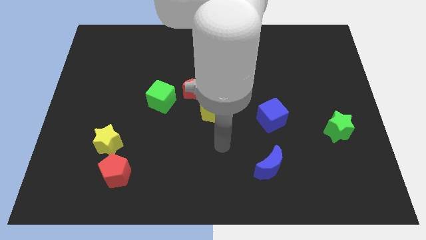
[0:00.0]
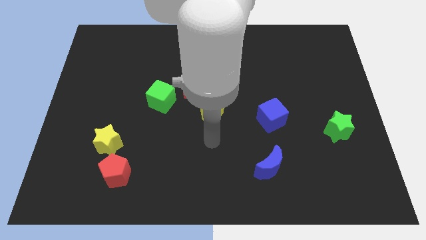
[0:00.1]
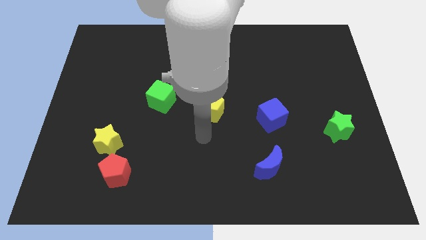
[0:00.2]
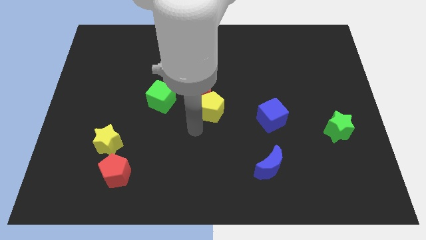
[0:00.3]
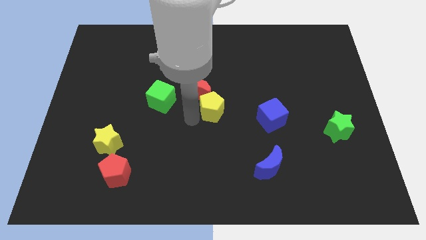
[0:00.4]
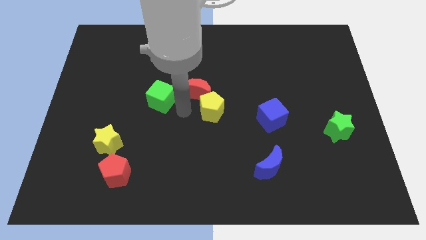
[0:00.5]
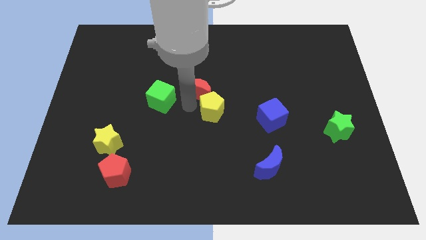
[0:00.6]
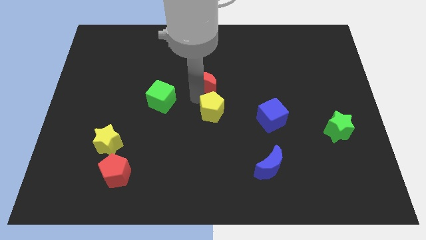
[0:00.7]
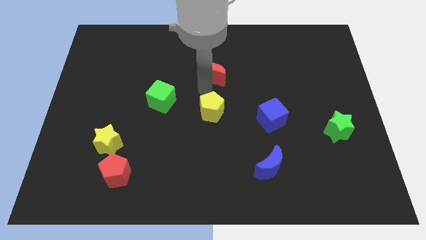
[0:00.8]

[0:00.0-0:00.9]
pull the yellow pentagon apart from the red moon

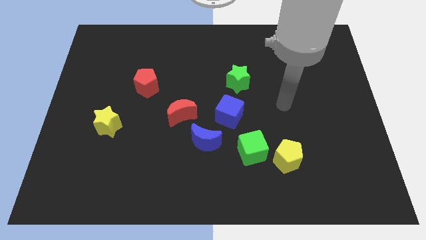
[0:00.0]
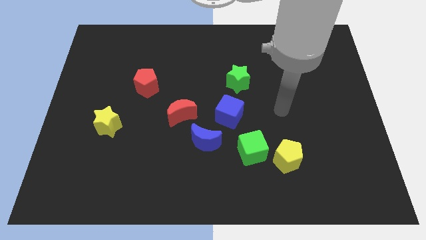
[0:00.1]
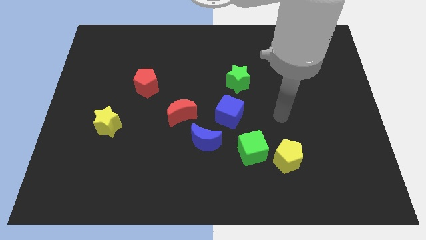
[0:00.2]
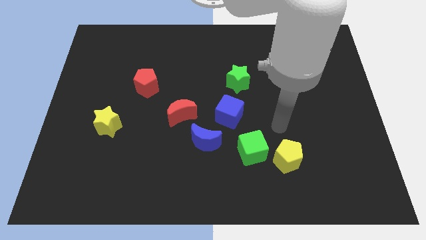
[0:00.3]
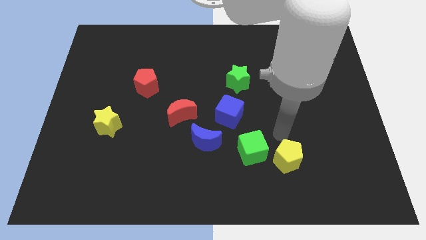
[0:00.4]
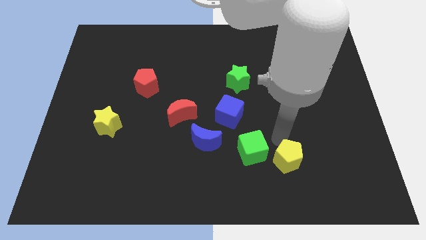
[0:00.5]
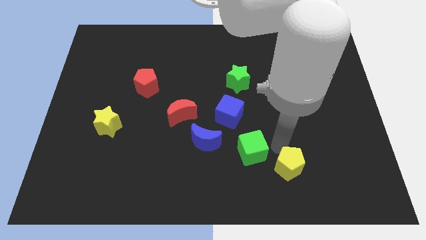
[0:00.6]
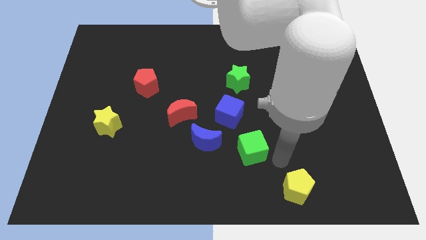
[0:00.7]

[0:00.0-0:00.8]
pull the green cube apart from the yellow pentagon

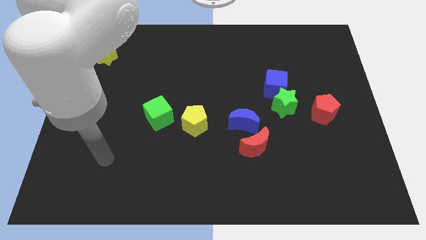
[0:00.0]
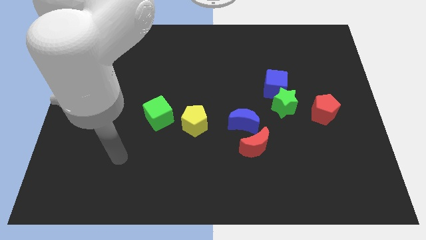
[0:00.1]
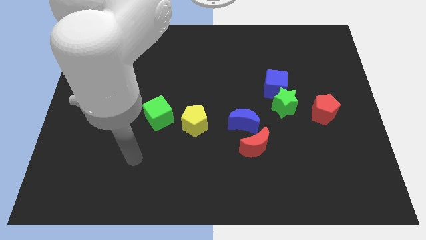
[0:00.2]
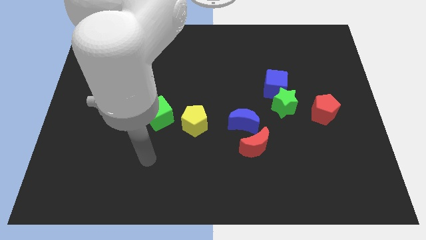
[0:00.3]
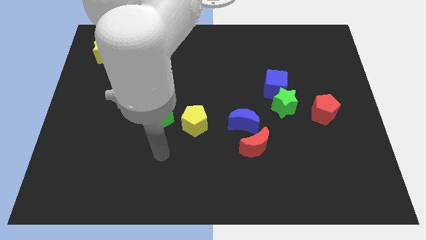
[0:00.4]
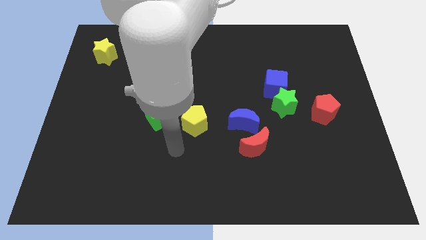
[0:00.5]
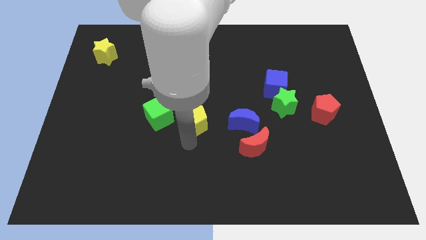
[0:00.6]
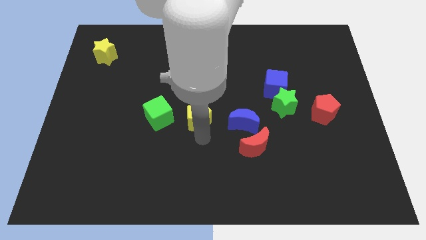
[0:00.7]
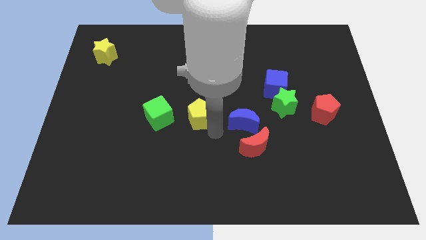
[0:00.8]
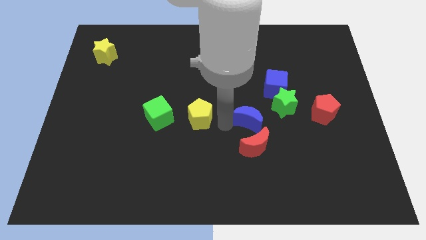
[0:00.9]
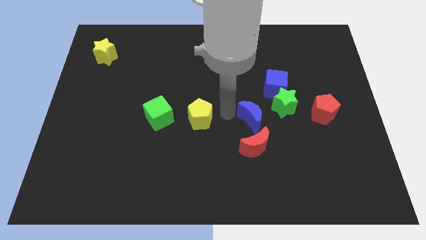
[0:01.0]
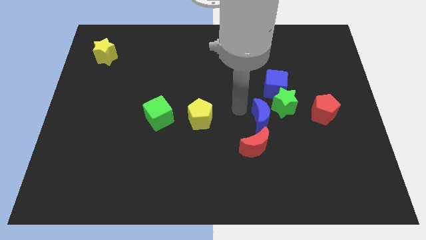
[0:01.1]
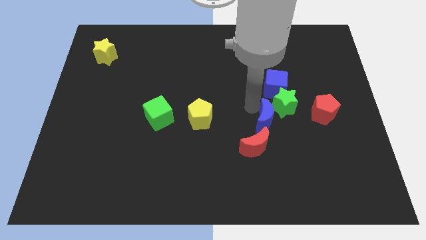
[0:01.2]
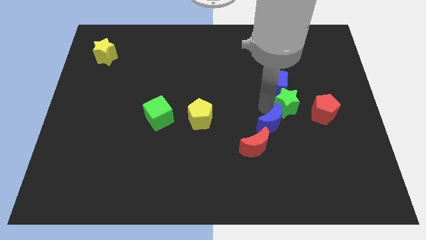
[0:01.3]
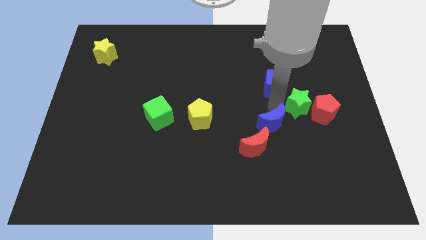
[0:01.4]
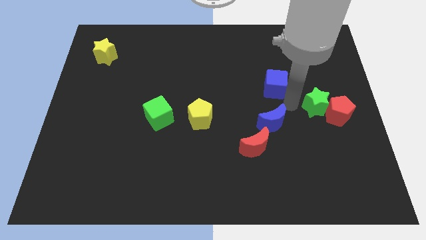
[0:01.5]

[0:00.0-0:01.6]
pull the blue cube apart from the green star

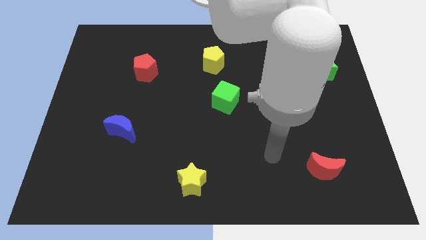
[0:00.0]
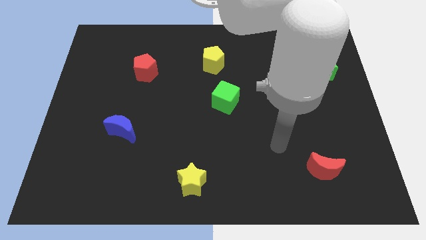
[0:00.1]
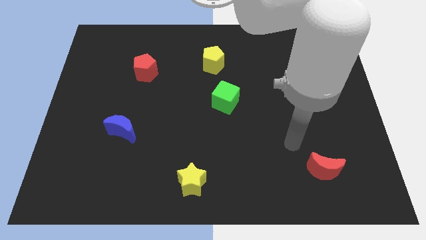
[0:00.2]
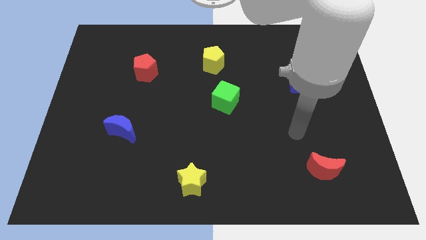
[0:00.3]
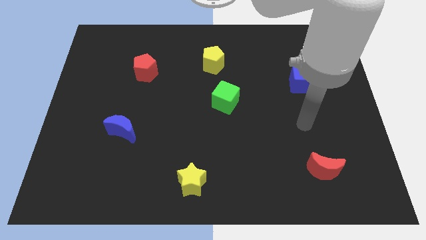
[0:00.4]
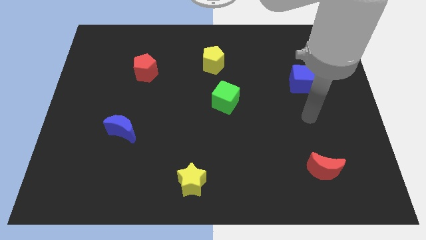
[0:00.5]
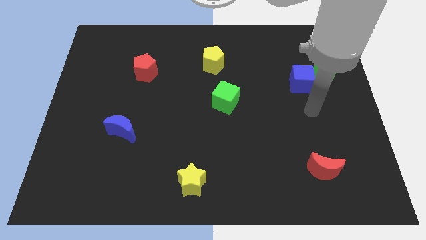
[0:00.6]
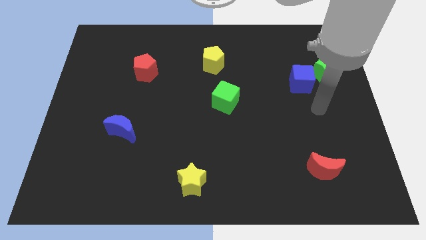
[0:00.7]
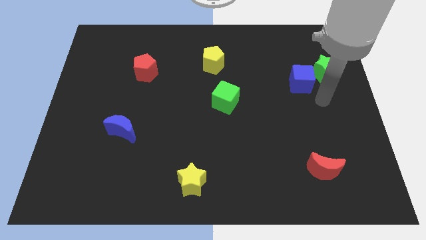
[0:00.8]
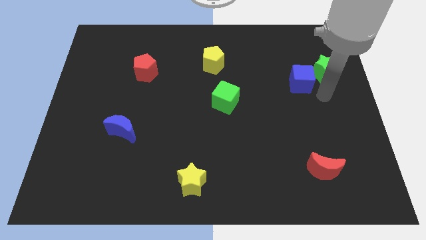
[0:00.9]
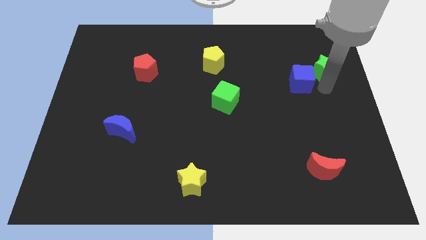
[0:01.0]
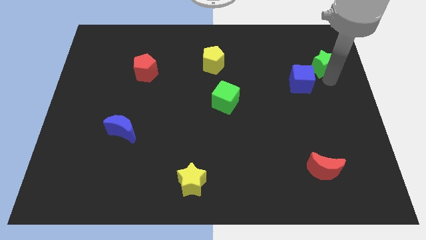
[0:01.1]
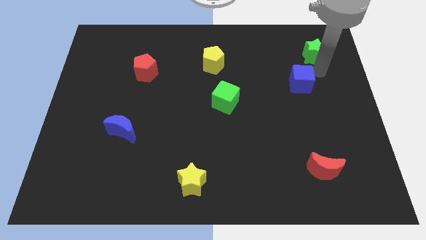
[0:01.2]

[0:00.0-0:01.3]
move the blue cube away from the green star

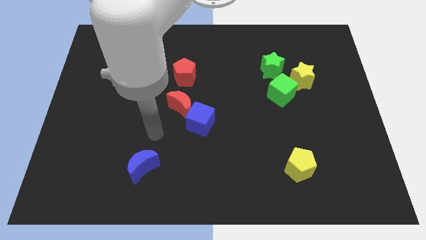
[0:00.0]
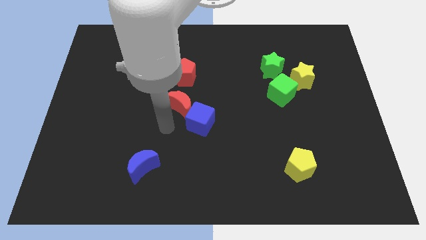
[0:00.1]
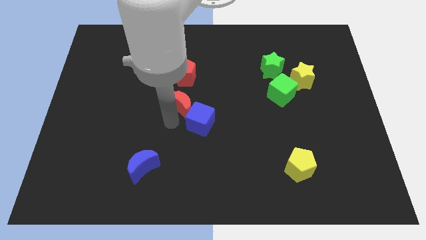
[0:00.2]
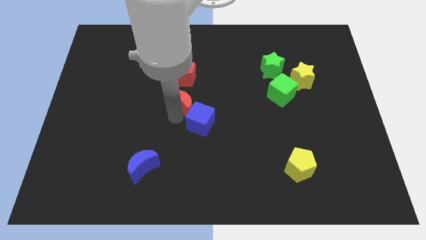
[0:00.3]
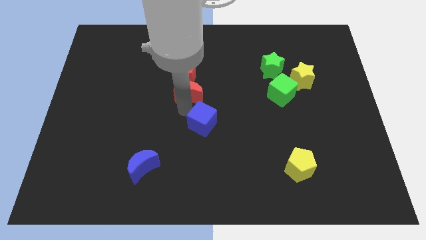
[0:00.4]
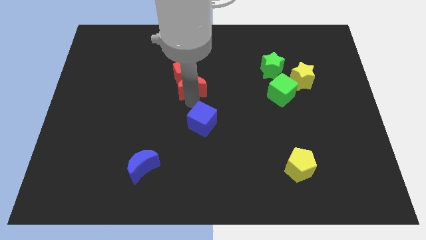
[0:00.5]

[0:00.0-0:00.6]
move the blue cube away from the red moon

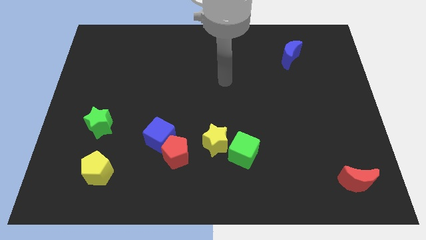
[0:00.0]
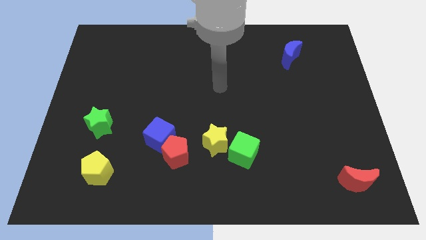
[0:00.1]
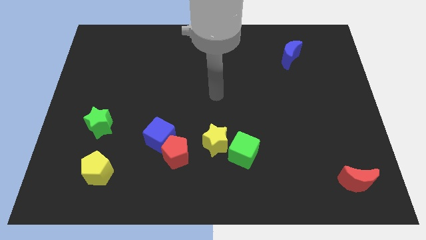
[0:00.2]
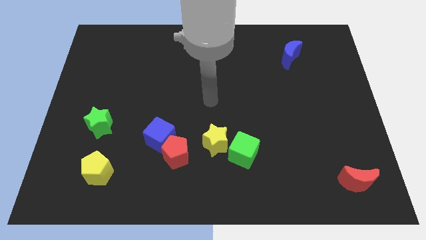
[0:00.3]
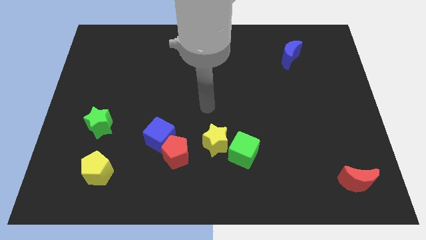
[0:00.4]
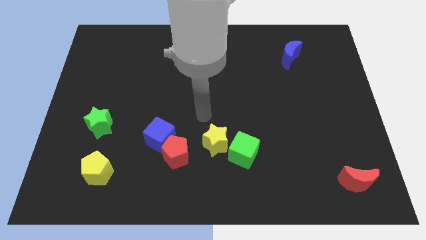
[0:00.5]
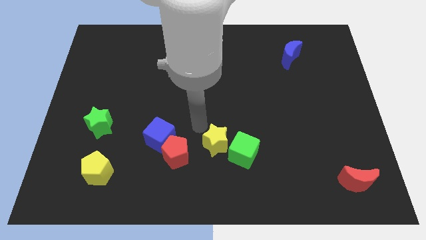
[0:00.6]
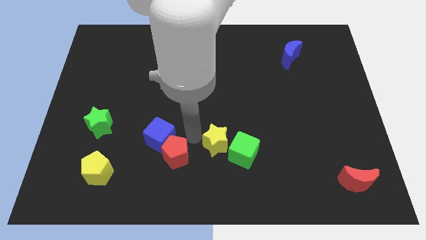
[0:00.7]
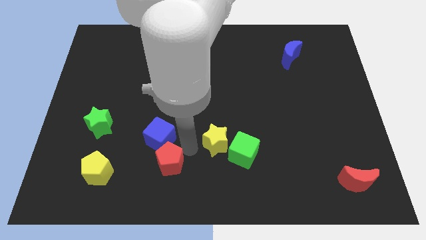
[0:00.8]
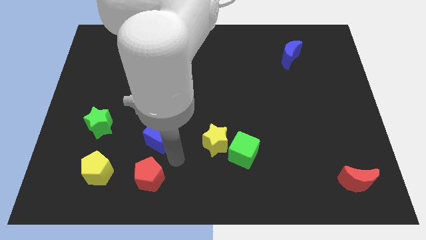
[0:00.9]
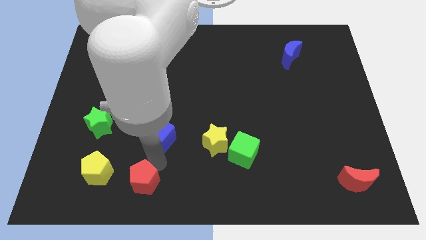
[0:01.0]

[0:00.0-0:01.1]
pull the blue cube apart from the red pentagon

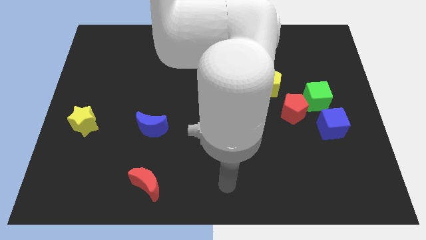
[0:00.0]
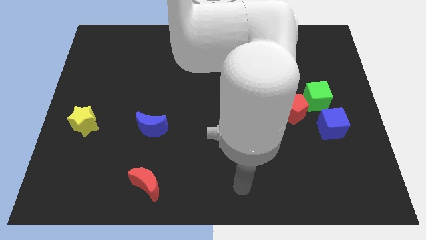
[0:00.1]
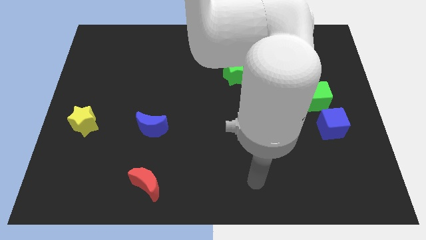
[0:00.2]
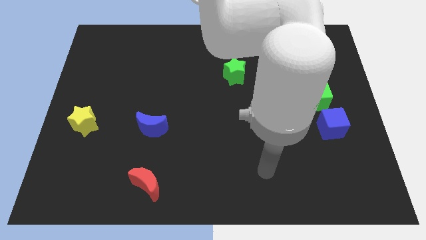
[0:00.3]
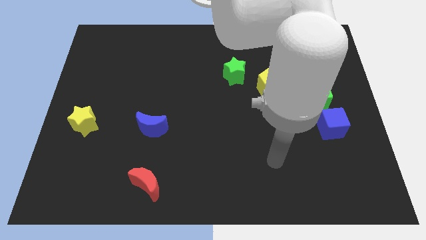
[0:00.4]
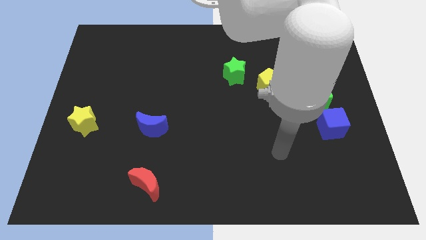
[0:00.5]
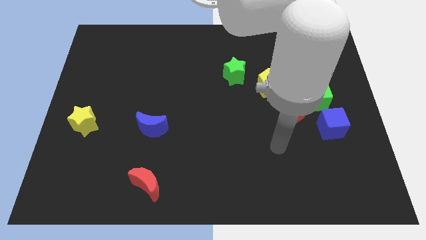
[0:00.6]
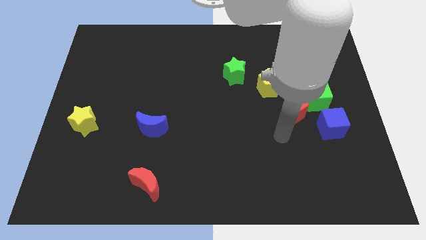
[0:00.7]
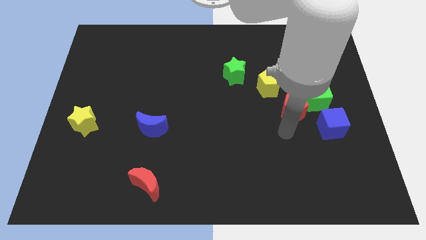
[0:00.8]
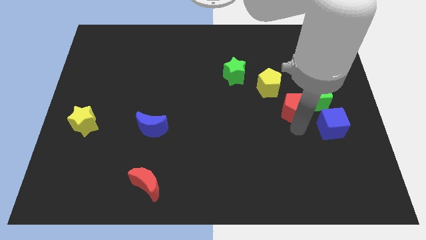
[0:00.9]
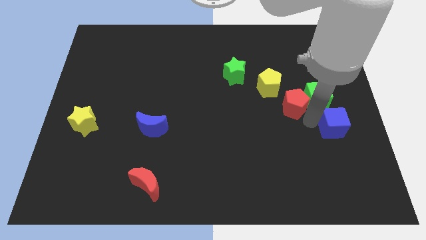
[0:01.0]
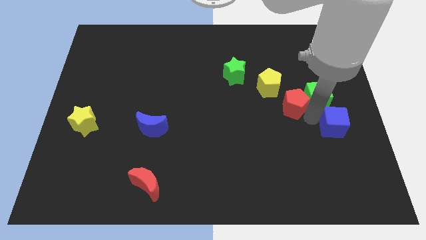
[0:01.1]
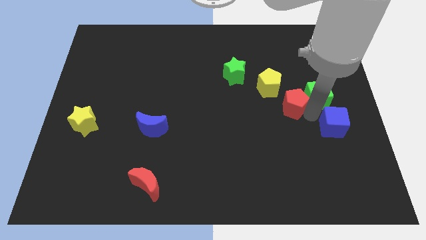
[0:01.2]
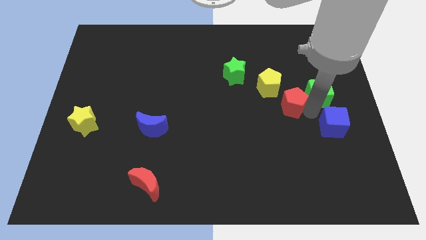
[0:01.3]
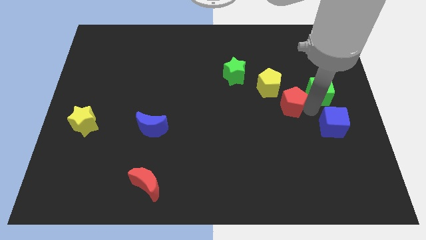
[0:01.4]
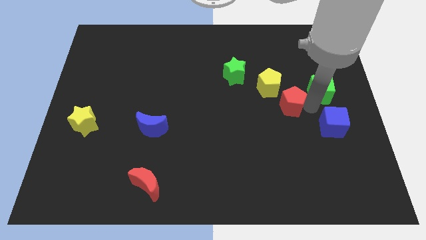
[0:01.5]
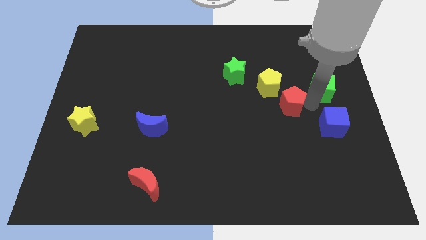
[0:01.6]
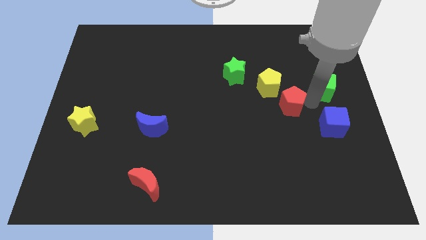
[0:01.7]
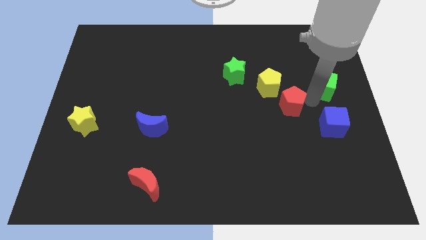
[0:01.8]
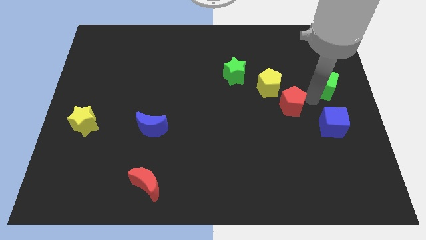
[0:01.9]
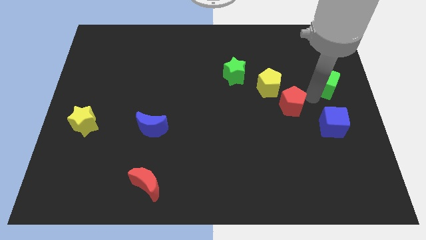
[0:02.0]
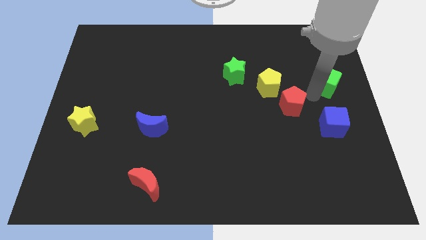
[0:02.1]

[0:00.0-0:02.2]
pull the green cube apart from the red pentagon and blue cube

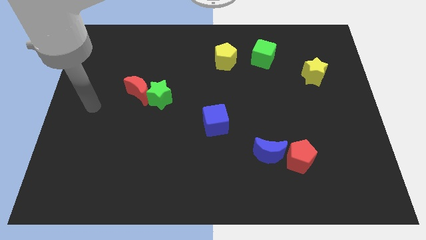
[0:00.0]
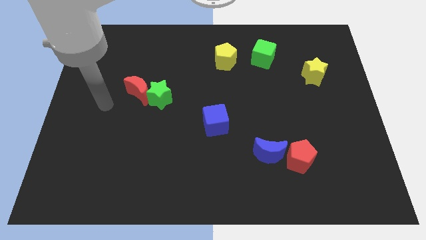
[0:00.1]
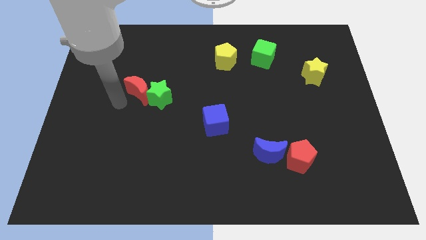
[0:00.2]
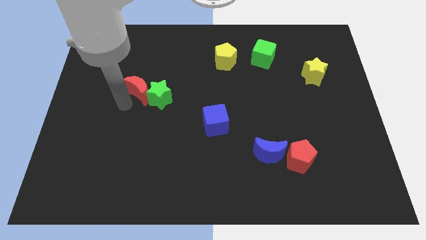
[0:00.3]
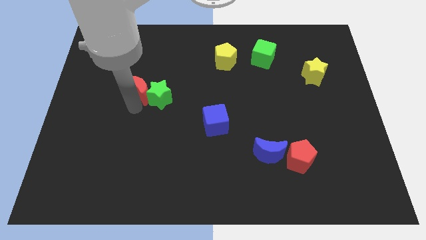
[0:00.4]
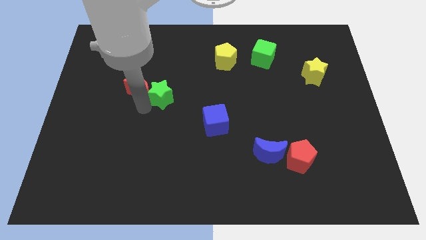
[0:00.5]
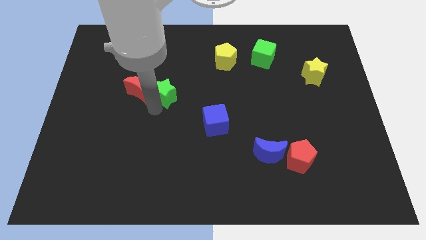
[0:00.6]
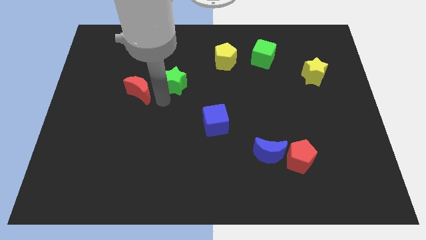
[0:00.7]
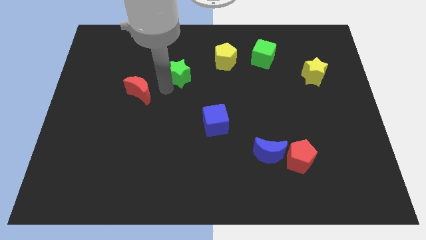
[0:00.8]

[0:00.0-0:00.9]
move the red moon away from the green star

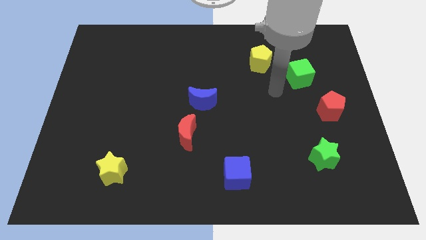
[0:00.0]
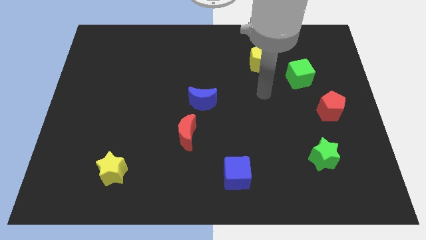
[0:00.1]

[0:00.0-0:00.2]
separate the red moon from the blue moon
